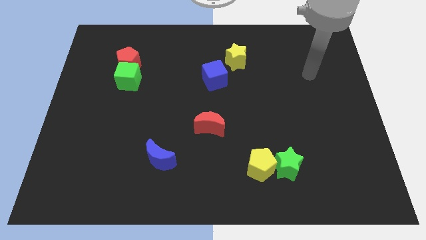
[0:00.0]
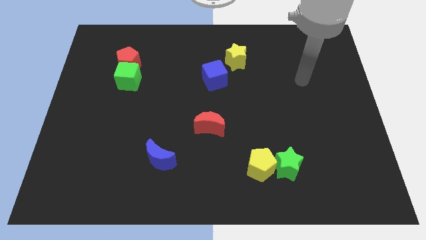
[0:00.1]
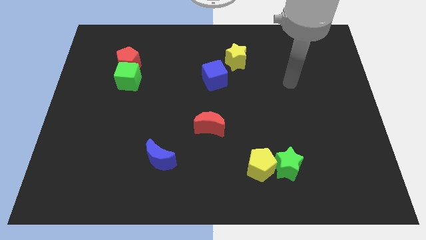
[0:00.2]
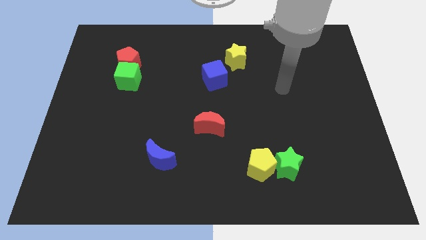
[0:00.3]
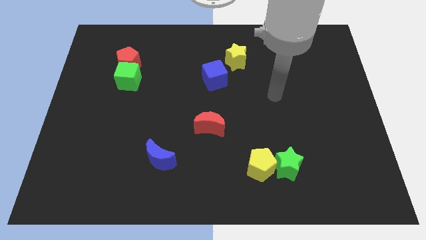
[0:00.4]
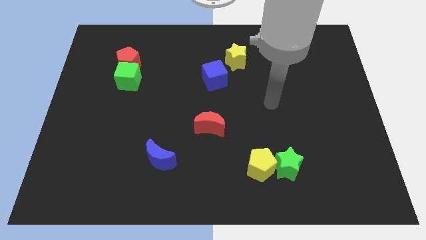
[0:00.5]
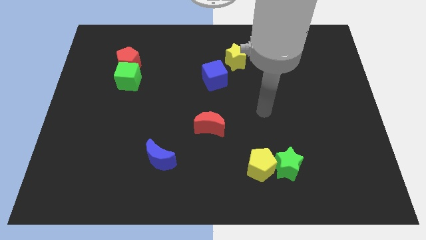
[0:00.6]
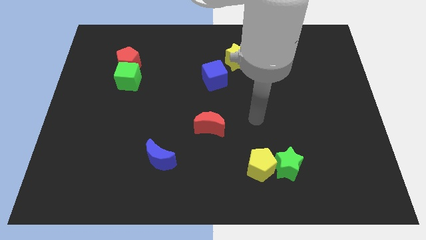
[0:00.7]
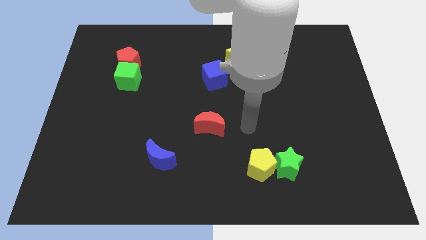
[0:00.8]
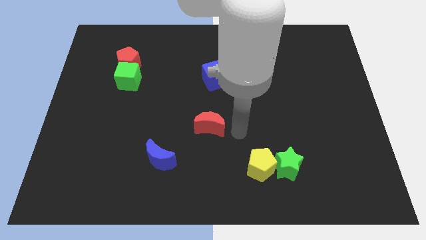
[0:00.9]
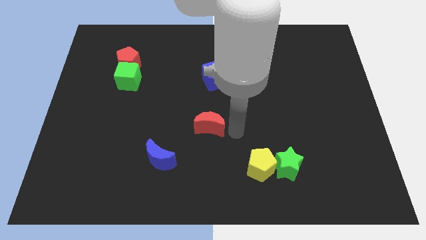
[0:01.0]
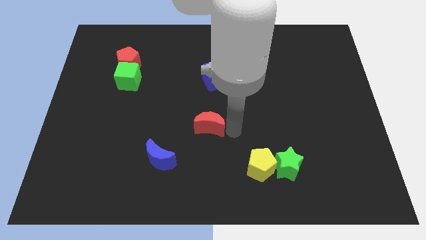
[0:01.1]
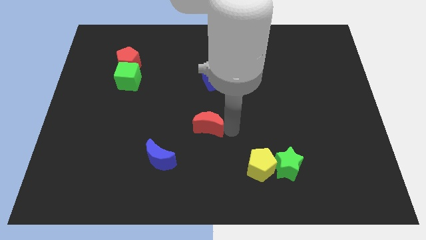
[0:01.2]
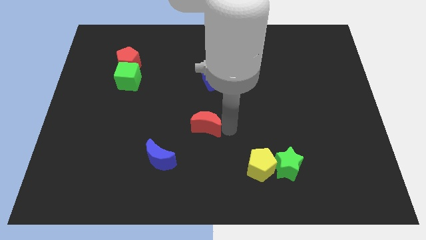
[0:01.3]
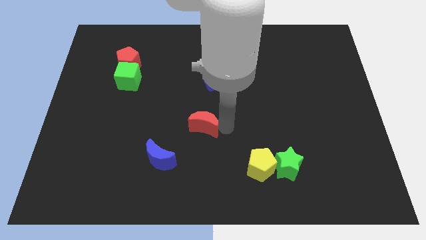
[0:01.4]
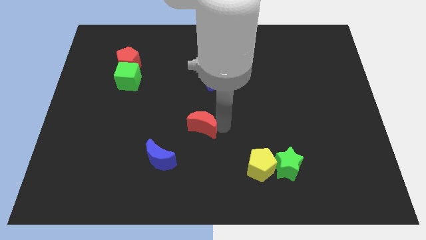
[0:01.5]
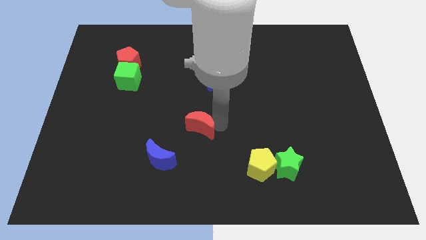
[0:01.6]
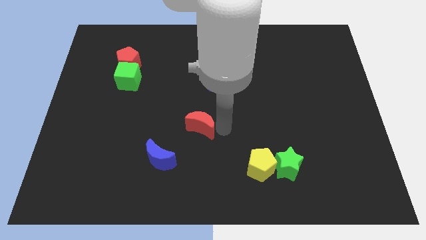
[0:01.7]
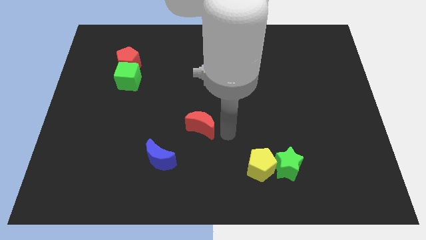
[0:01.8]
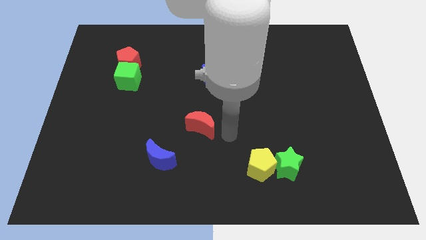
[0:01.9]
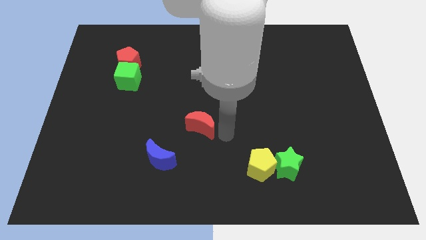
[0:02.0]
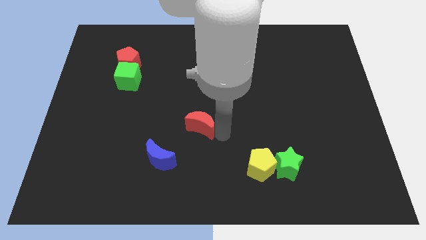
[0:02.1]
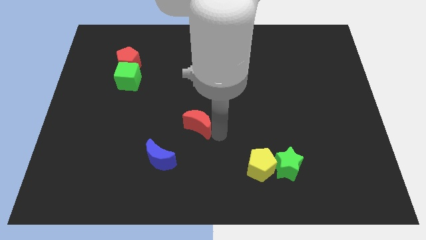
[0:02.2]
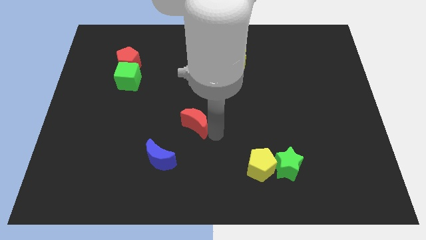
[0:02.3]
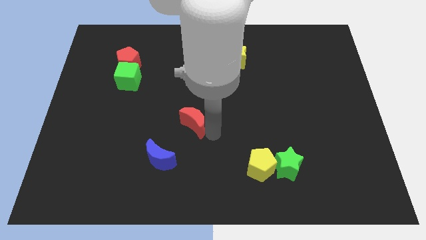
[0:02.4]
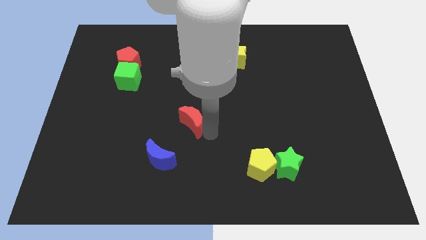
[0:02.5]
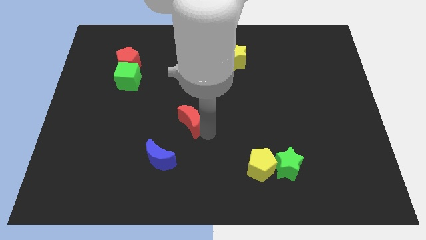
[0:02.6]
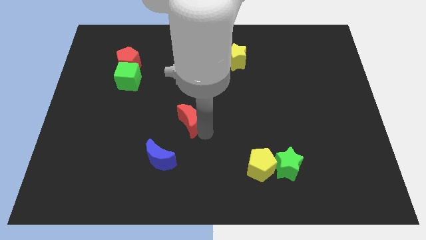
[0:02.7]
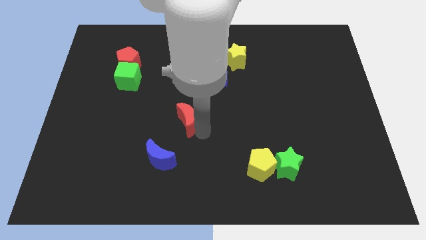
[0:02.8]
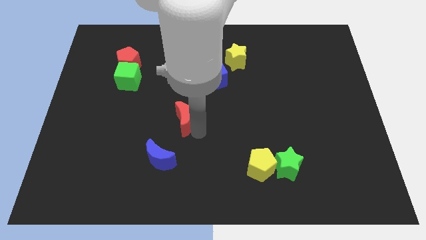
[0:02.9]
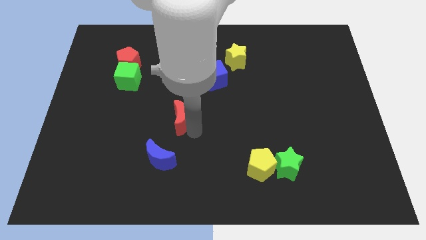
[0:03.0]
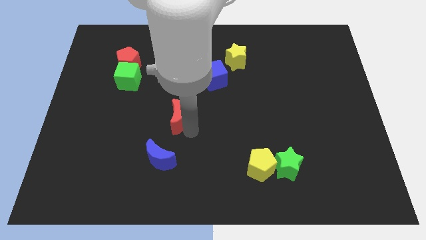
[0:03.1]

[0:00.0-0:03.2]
push the red moon left somewhat

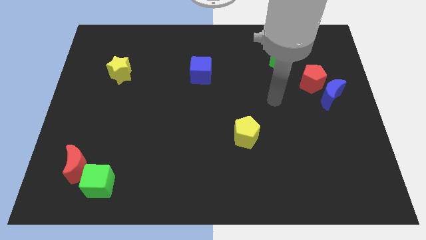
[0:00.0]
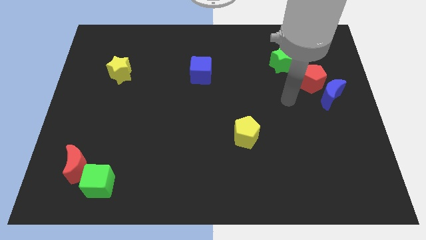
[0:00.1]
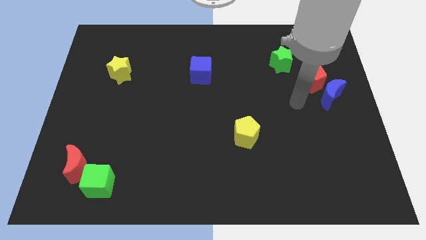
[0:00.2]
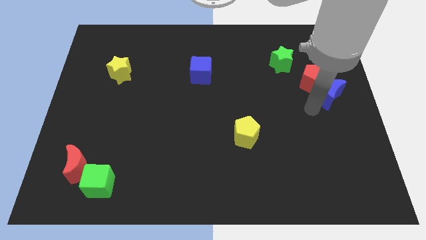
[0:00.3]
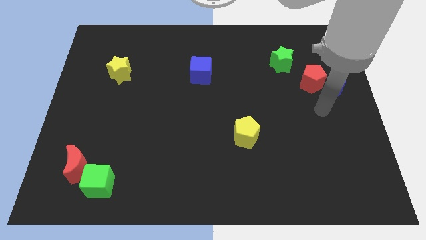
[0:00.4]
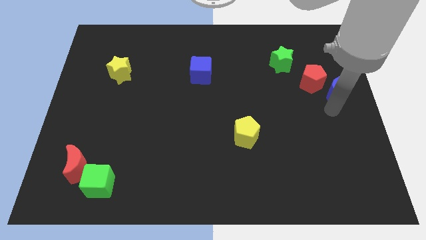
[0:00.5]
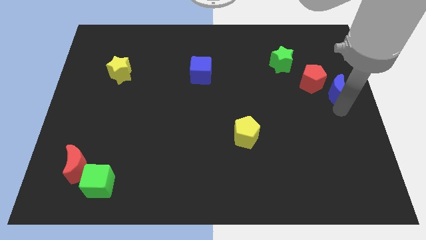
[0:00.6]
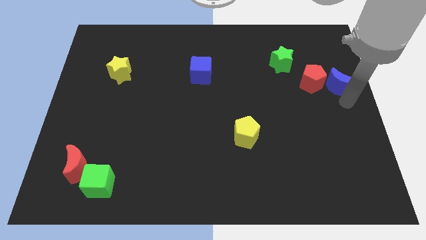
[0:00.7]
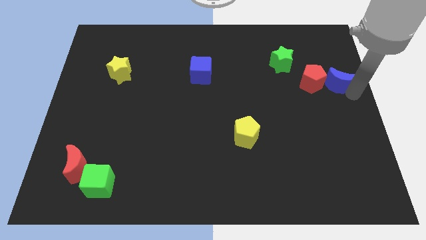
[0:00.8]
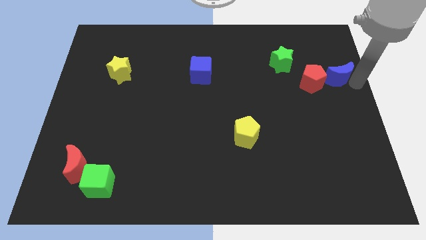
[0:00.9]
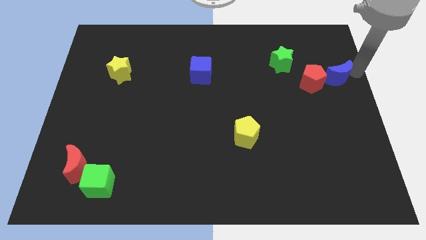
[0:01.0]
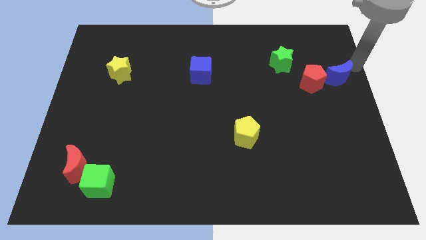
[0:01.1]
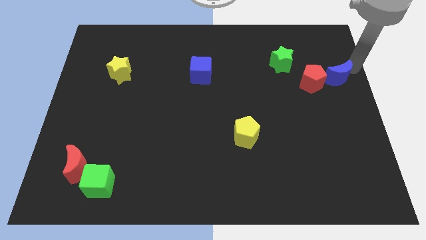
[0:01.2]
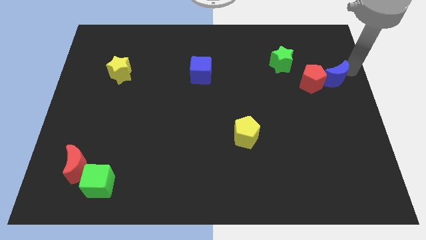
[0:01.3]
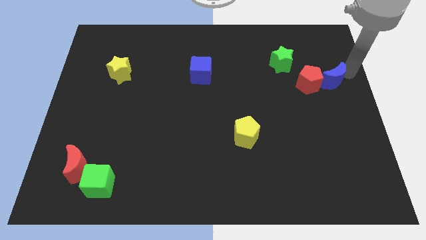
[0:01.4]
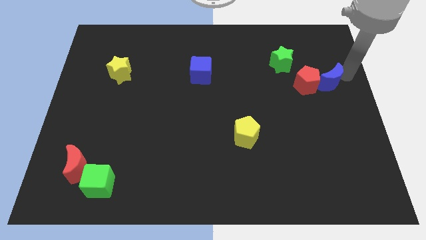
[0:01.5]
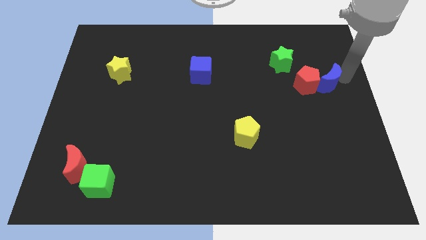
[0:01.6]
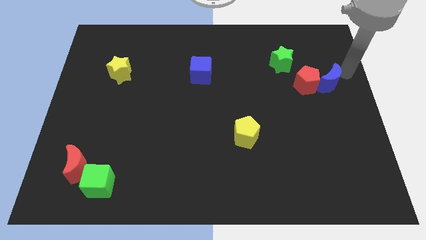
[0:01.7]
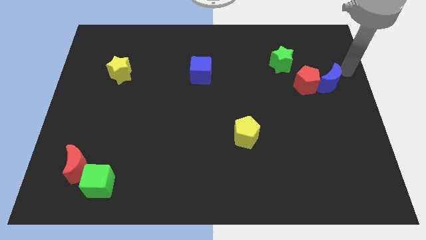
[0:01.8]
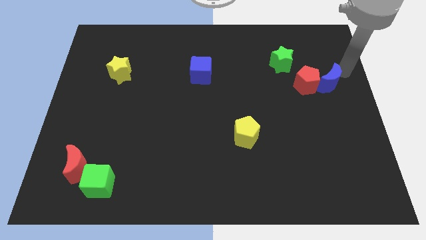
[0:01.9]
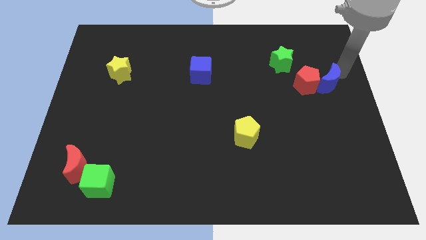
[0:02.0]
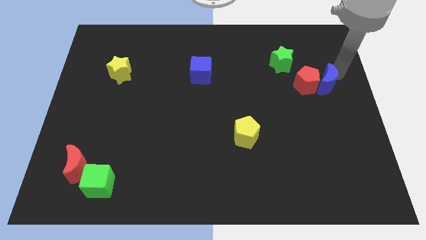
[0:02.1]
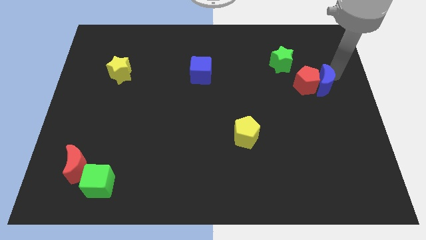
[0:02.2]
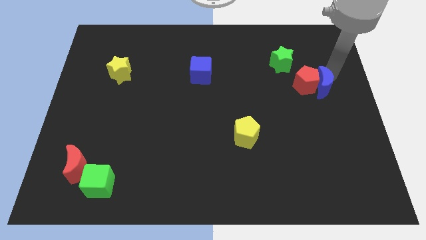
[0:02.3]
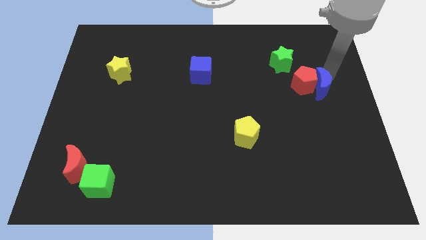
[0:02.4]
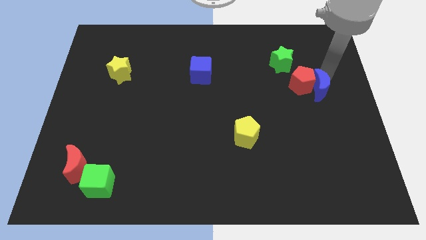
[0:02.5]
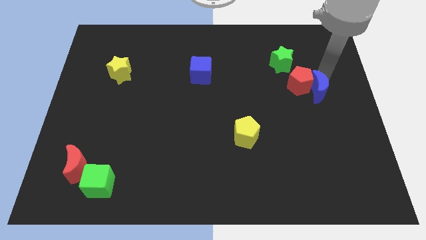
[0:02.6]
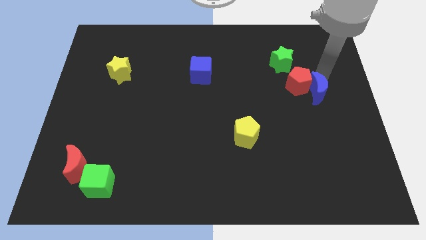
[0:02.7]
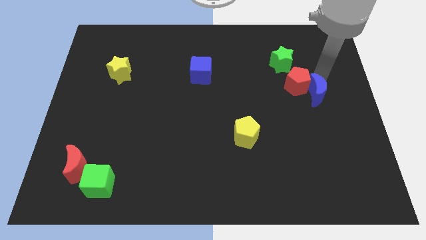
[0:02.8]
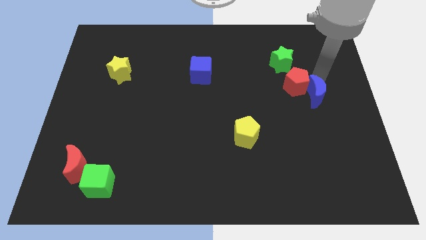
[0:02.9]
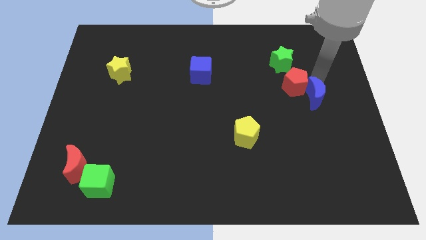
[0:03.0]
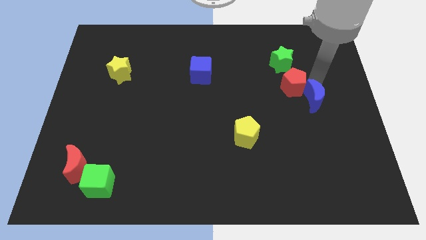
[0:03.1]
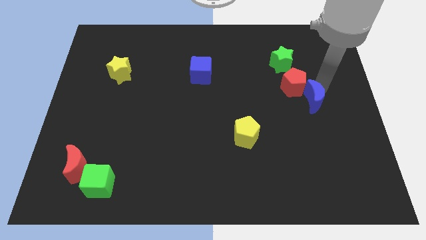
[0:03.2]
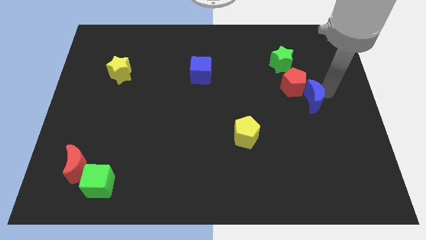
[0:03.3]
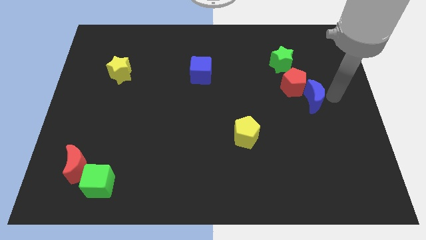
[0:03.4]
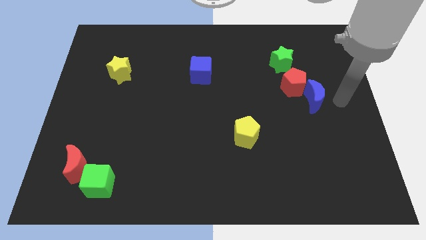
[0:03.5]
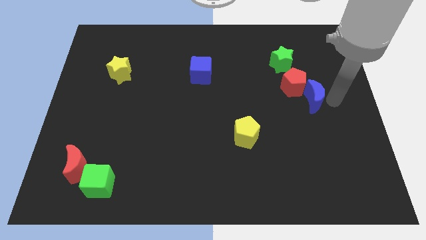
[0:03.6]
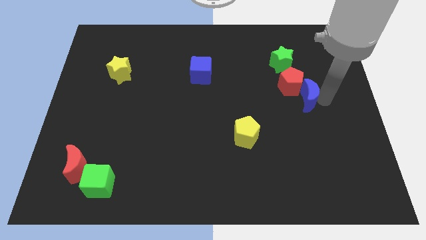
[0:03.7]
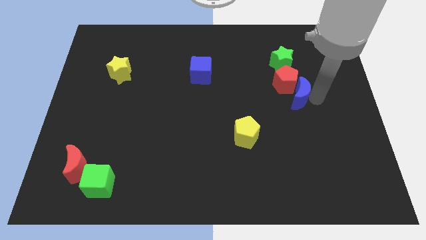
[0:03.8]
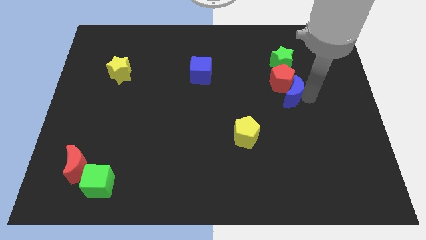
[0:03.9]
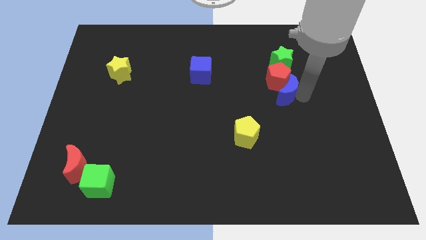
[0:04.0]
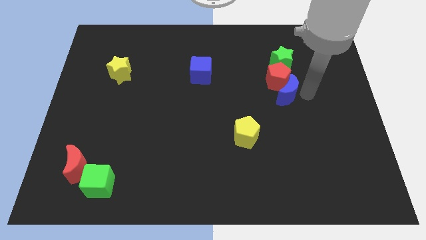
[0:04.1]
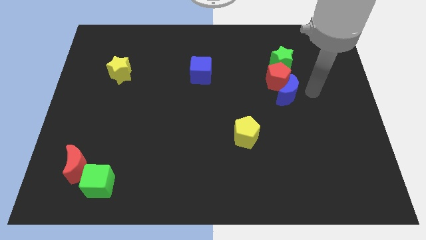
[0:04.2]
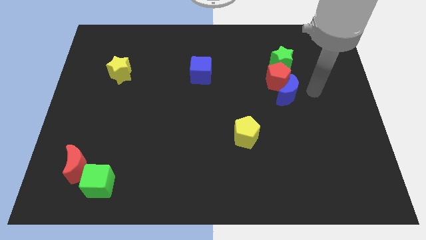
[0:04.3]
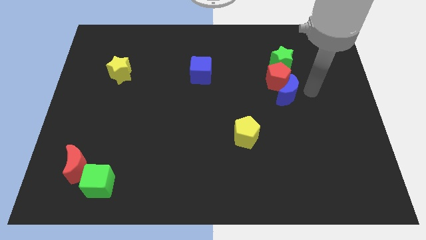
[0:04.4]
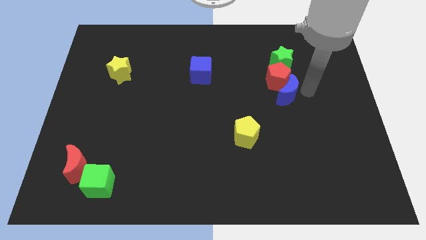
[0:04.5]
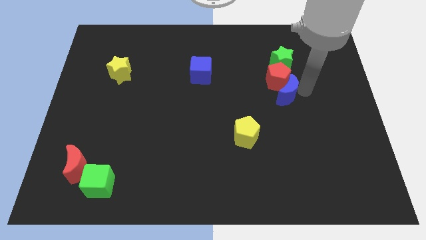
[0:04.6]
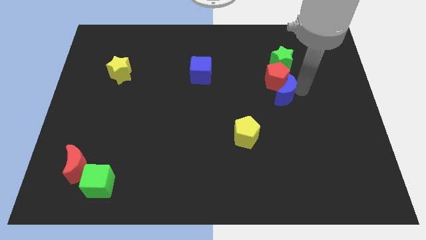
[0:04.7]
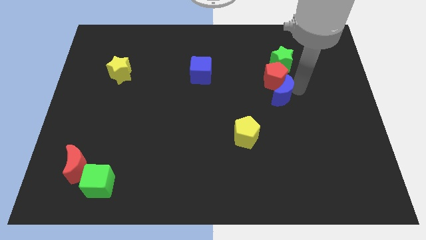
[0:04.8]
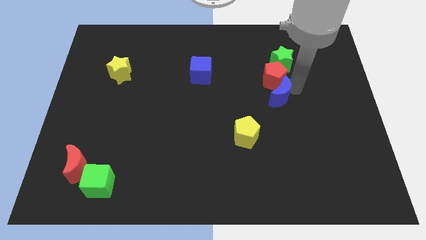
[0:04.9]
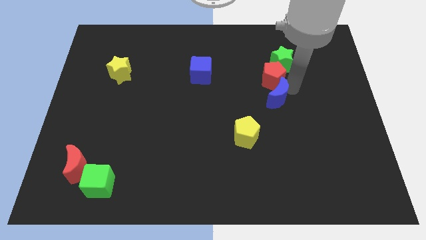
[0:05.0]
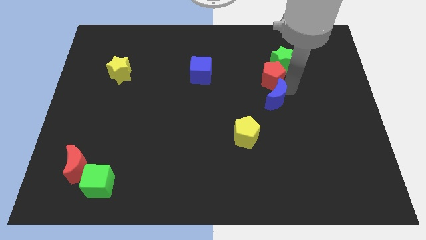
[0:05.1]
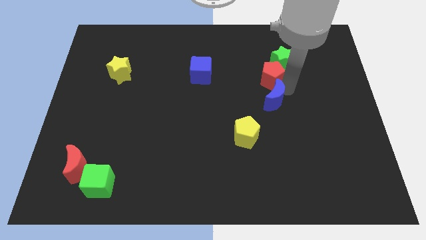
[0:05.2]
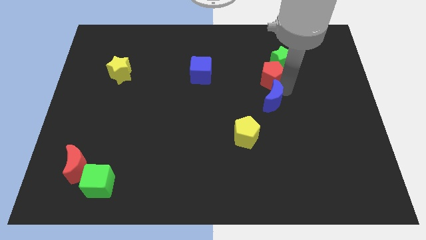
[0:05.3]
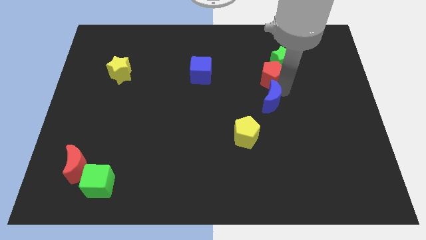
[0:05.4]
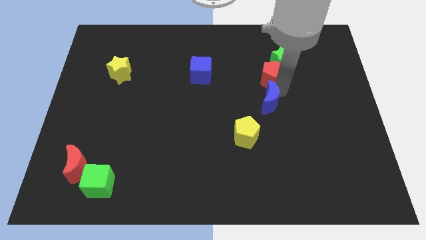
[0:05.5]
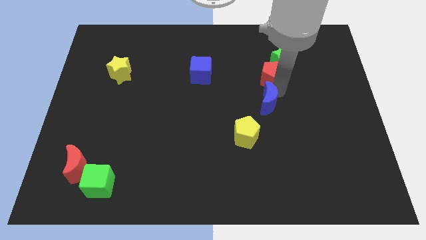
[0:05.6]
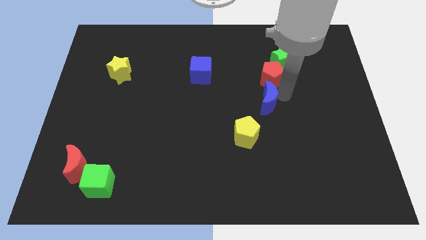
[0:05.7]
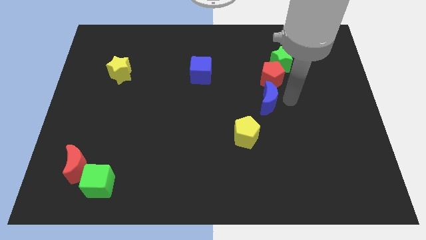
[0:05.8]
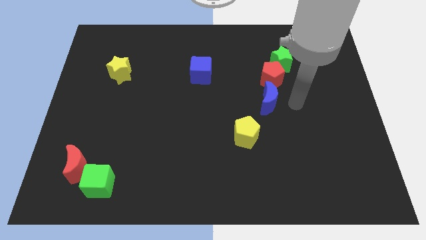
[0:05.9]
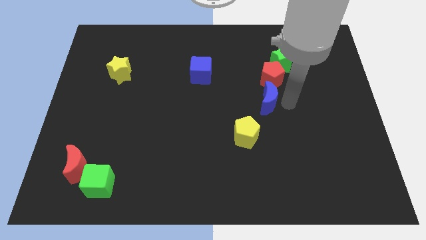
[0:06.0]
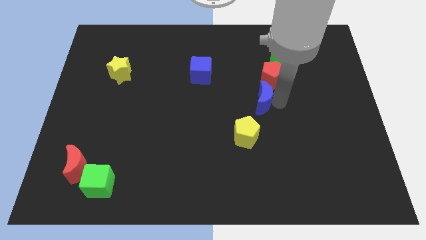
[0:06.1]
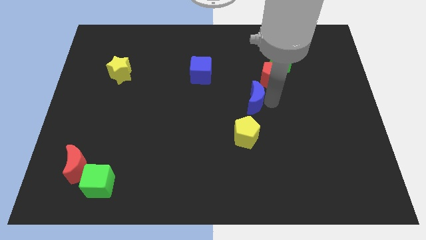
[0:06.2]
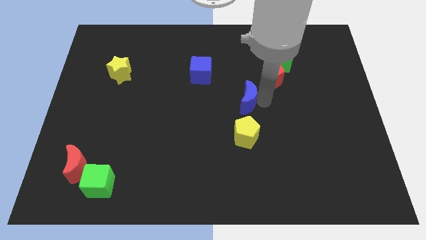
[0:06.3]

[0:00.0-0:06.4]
push the blue moon to the left
